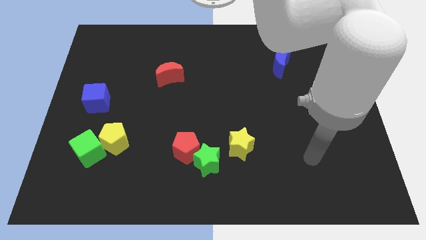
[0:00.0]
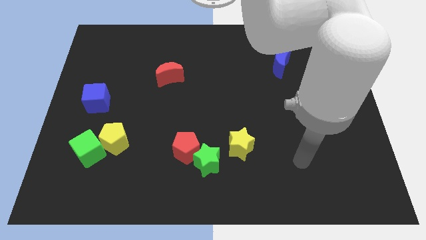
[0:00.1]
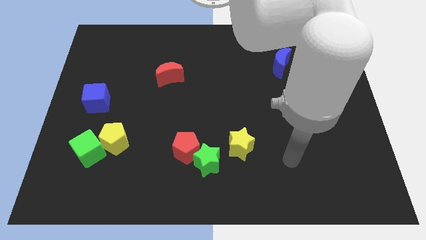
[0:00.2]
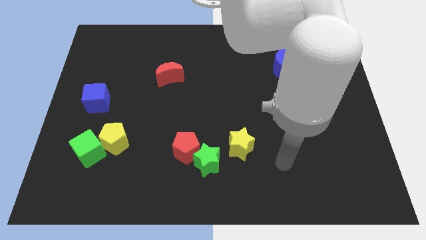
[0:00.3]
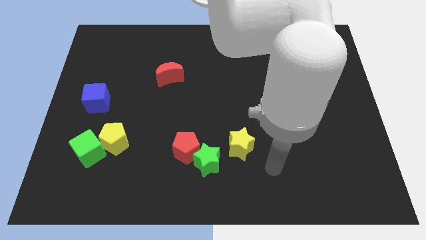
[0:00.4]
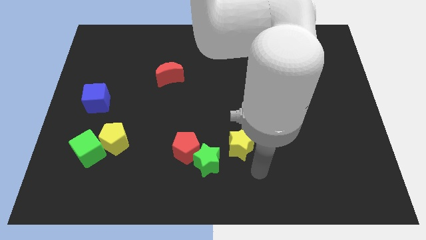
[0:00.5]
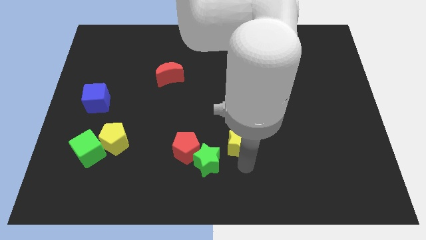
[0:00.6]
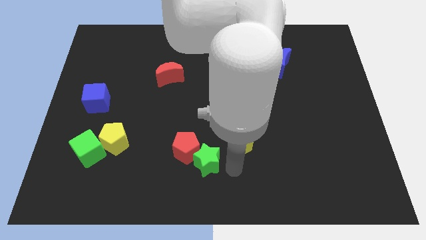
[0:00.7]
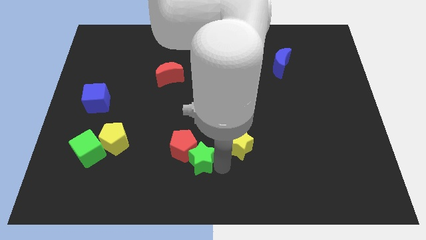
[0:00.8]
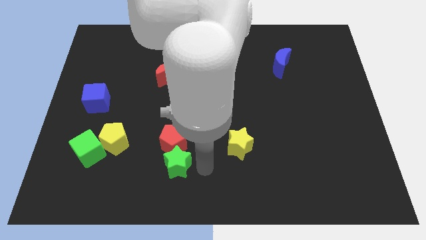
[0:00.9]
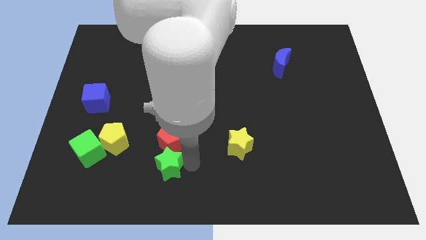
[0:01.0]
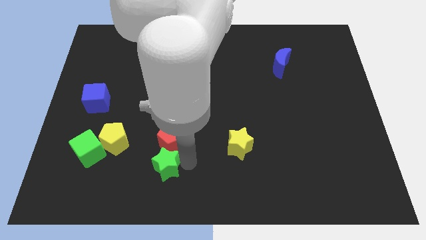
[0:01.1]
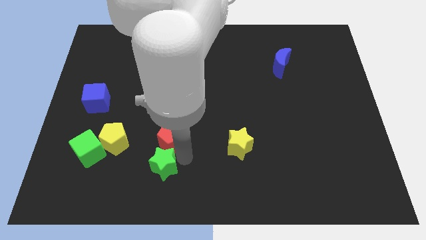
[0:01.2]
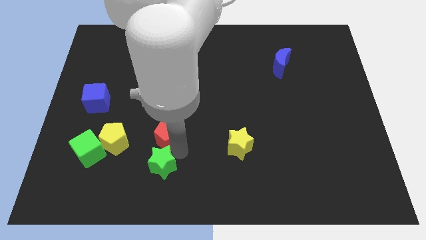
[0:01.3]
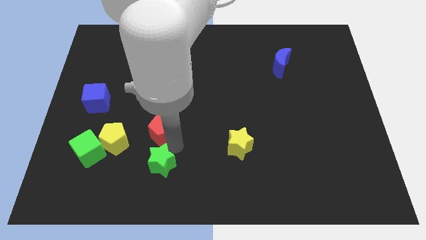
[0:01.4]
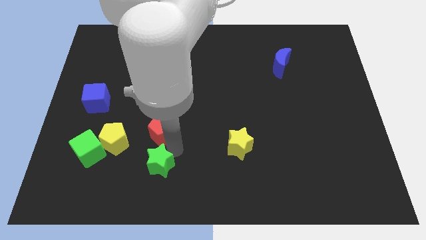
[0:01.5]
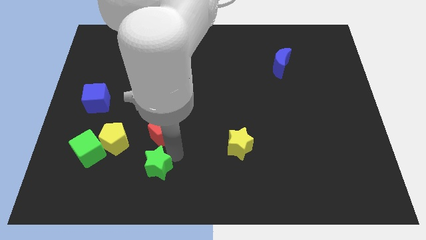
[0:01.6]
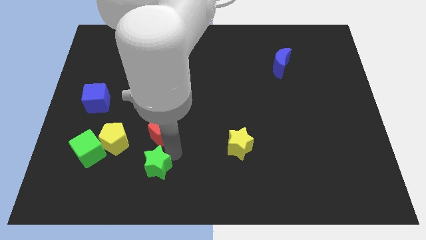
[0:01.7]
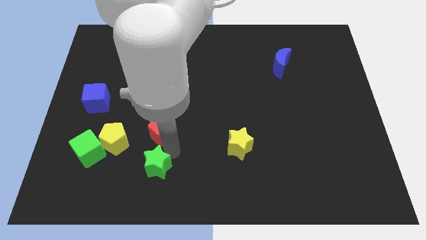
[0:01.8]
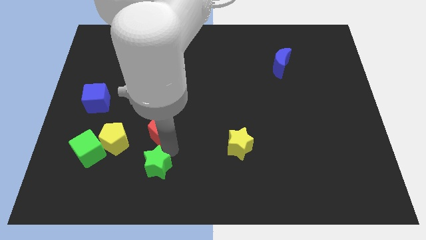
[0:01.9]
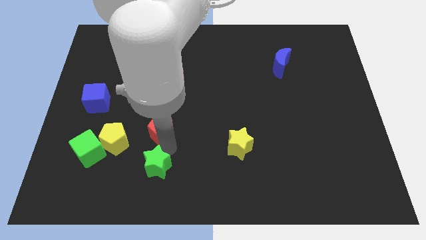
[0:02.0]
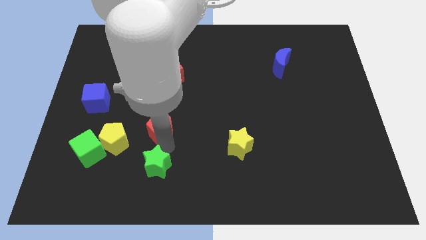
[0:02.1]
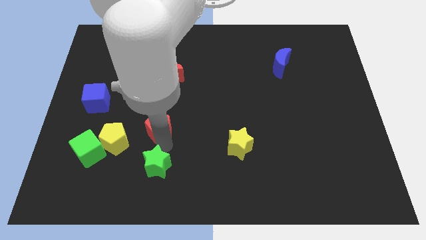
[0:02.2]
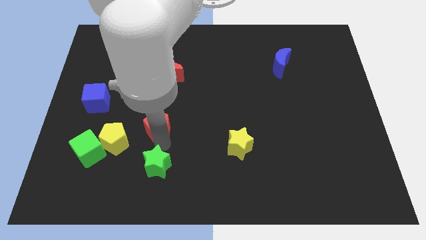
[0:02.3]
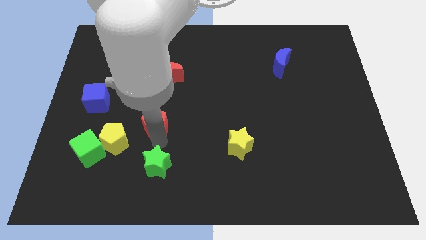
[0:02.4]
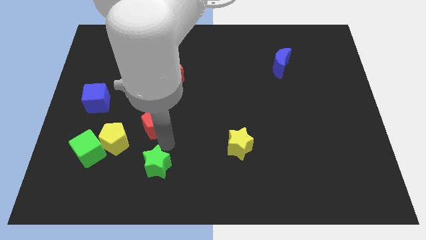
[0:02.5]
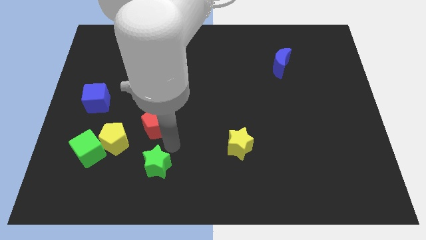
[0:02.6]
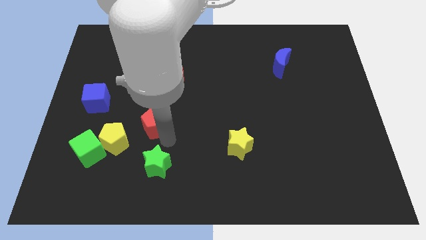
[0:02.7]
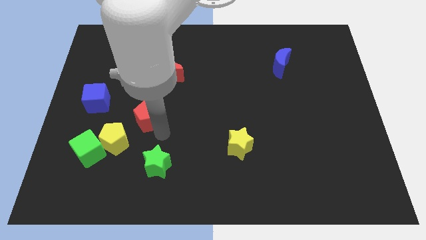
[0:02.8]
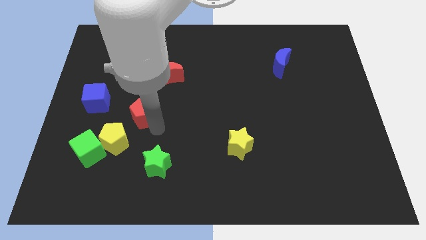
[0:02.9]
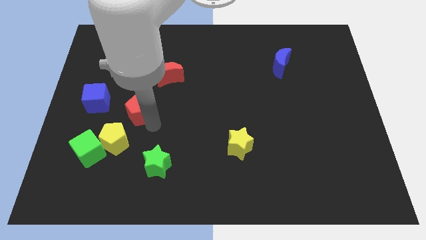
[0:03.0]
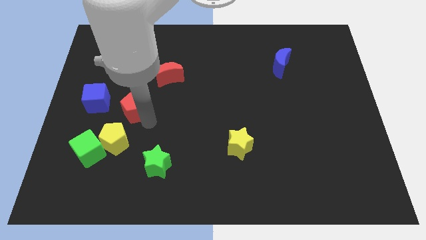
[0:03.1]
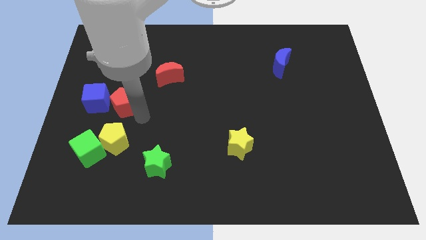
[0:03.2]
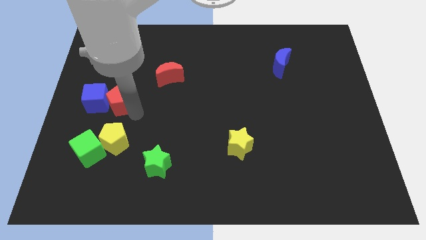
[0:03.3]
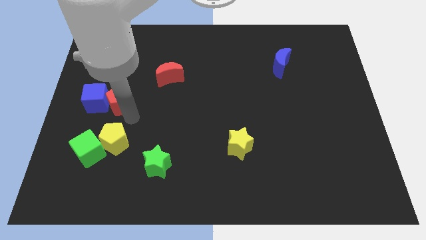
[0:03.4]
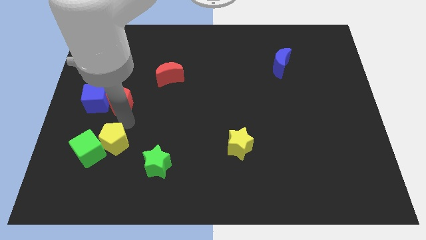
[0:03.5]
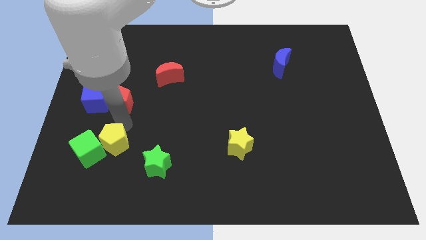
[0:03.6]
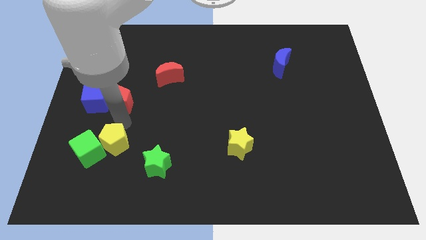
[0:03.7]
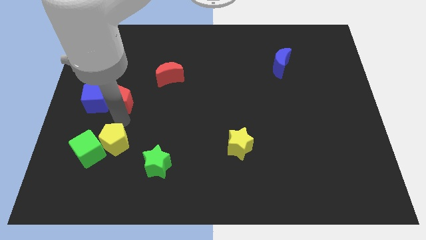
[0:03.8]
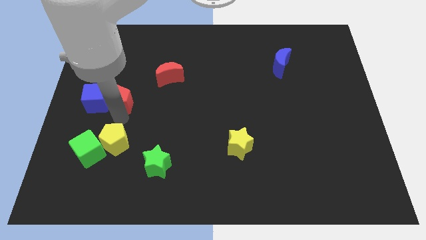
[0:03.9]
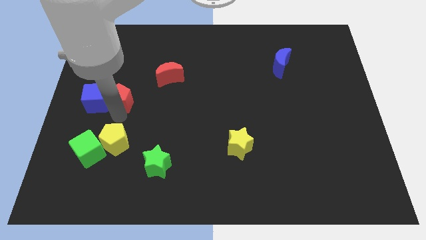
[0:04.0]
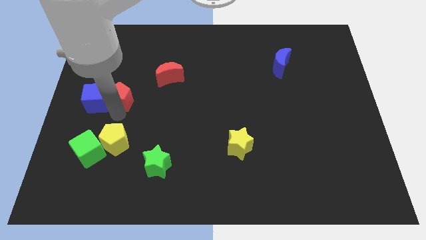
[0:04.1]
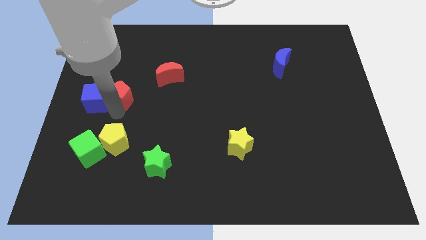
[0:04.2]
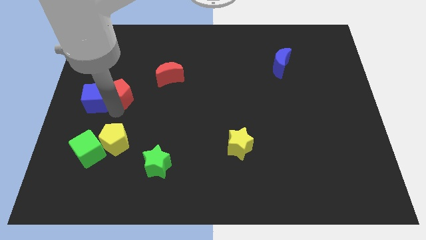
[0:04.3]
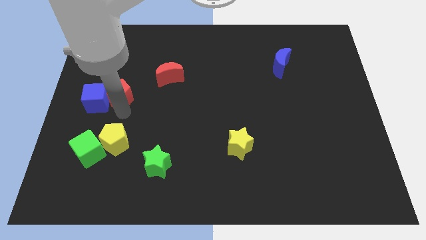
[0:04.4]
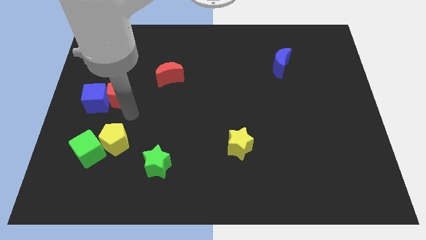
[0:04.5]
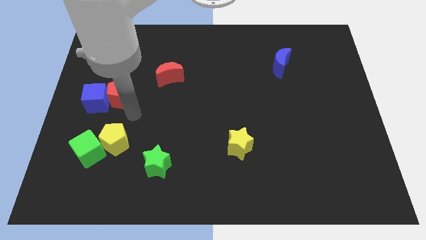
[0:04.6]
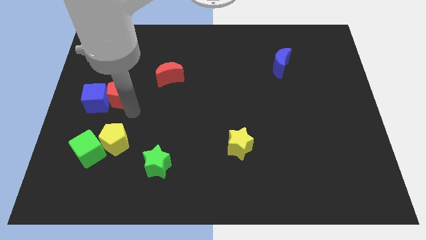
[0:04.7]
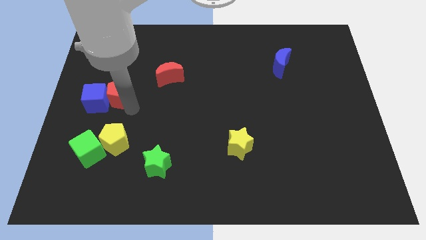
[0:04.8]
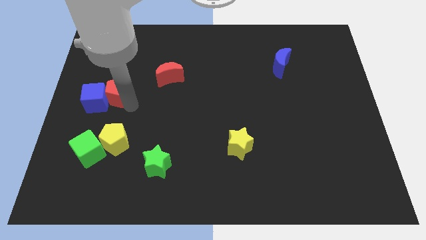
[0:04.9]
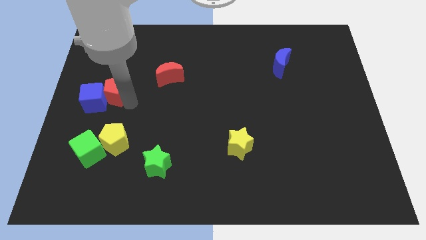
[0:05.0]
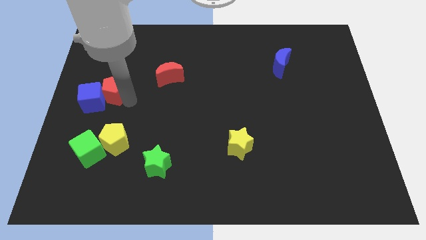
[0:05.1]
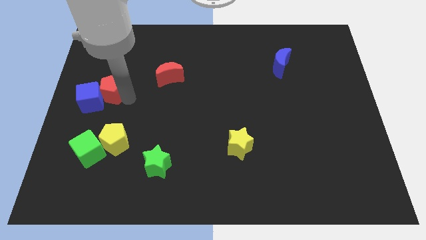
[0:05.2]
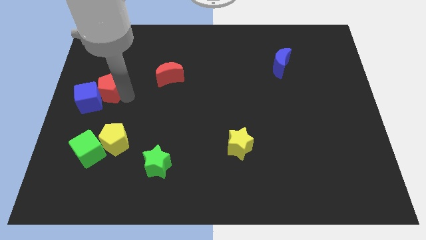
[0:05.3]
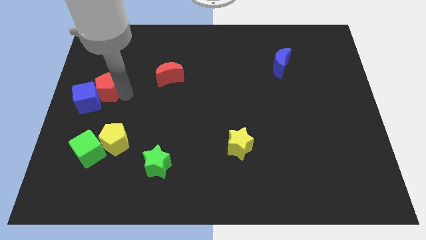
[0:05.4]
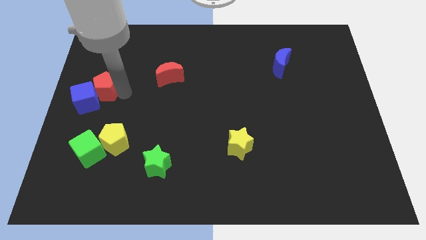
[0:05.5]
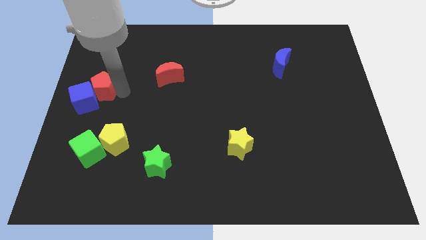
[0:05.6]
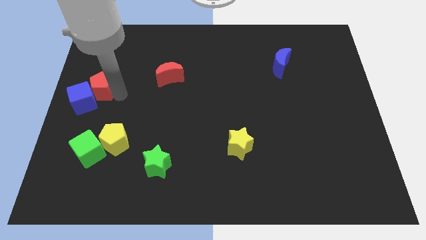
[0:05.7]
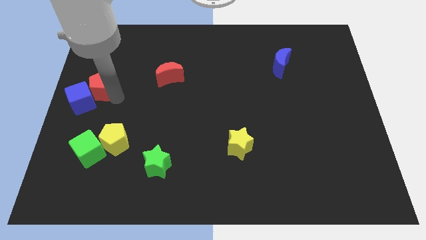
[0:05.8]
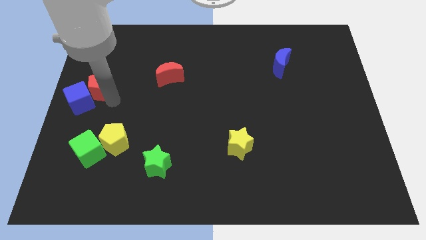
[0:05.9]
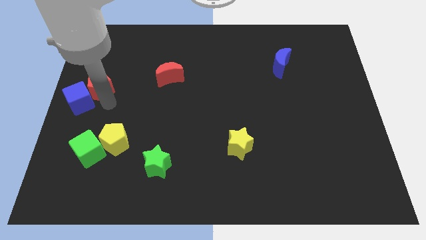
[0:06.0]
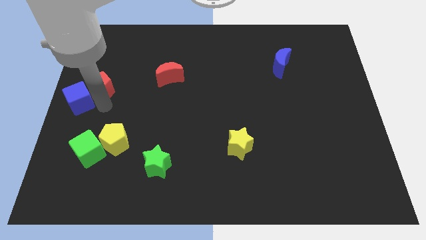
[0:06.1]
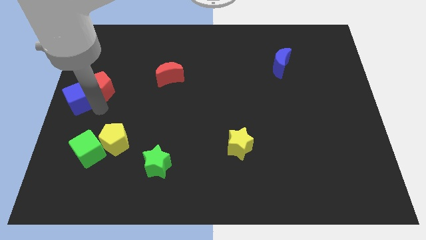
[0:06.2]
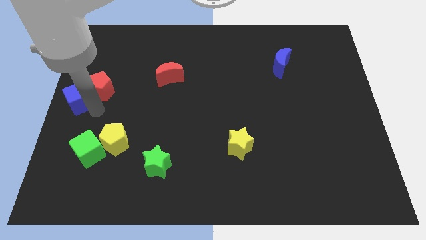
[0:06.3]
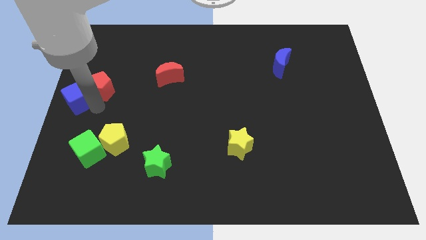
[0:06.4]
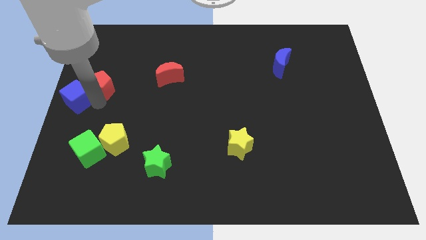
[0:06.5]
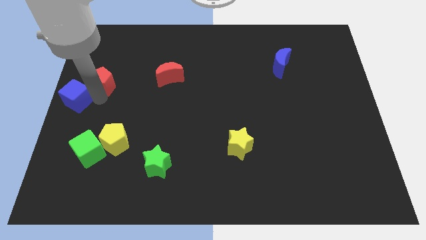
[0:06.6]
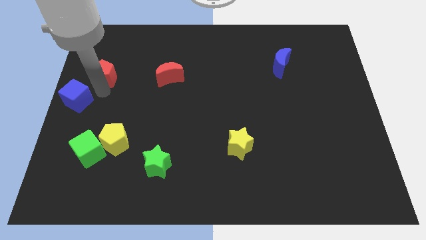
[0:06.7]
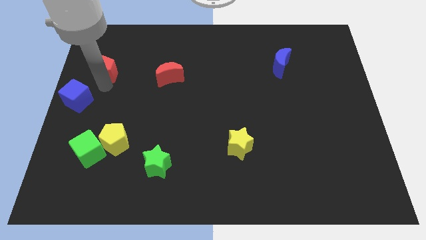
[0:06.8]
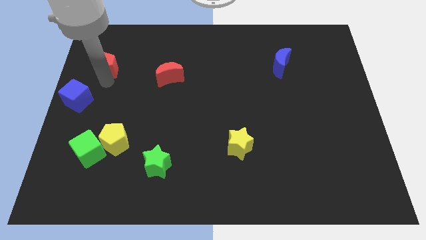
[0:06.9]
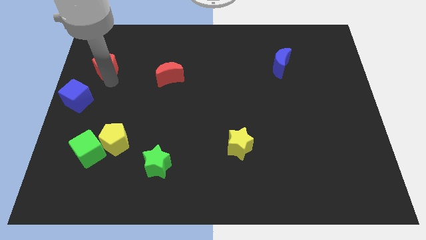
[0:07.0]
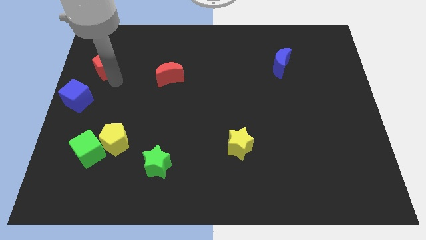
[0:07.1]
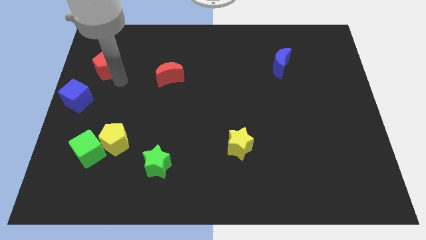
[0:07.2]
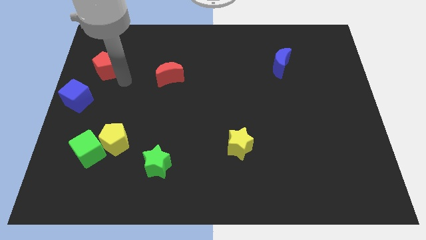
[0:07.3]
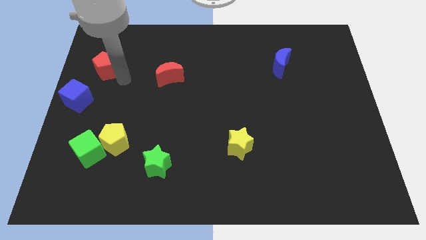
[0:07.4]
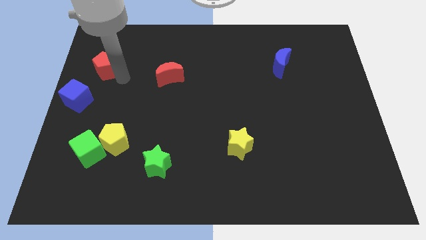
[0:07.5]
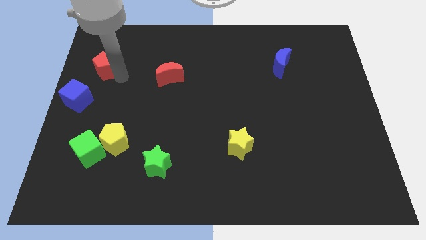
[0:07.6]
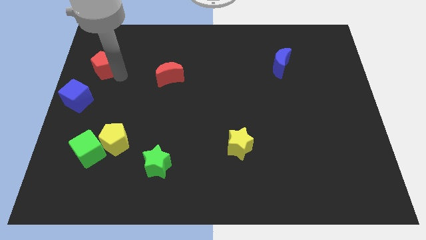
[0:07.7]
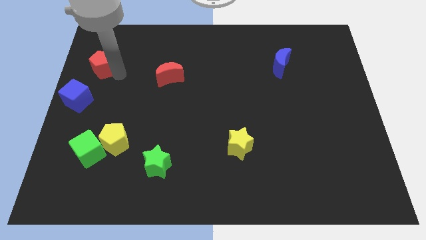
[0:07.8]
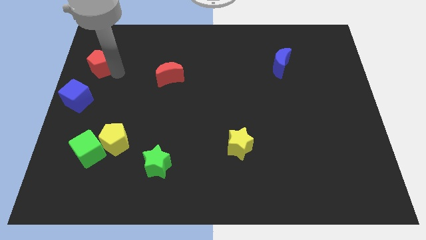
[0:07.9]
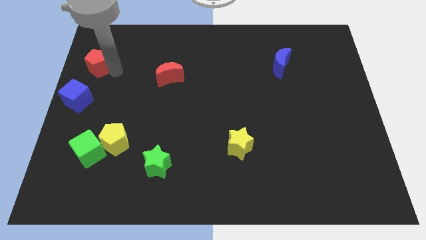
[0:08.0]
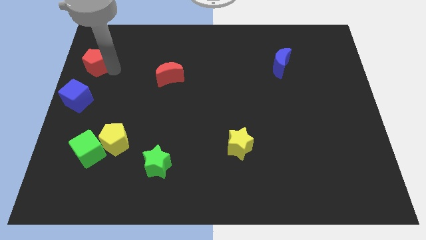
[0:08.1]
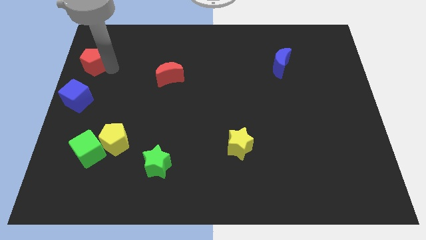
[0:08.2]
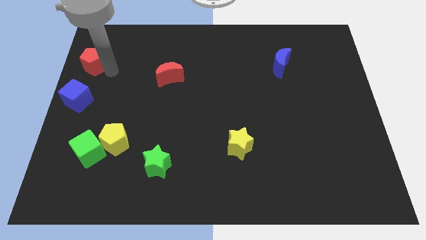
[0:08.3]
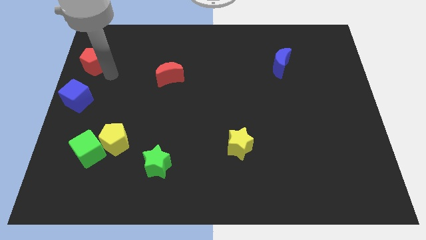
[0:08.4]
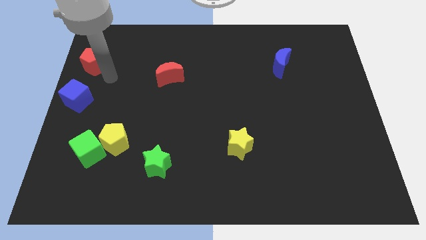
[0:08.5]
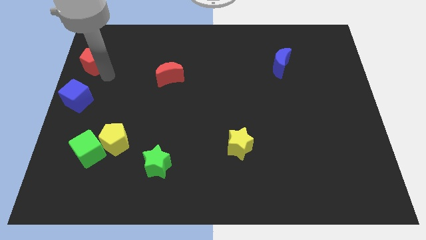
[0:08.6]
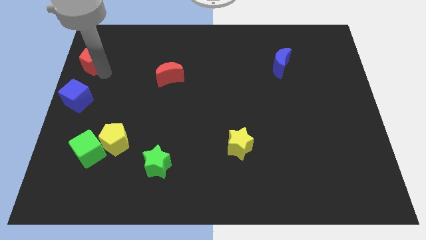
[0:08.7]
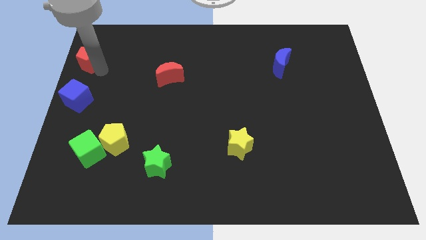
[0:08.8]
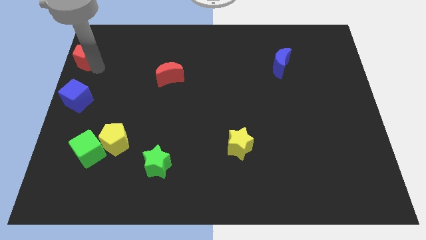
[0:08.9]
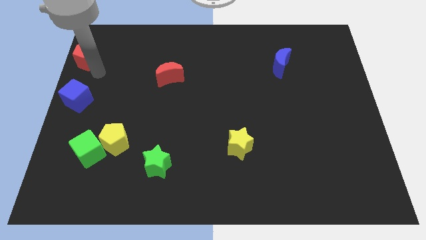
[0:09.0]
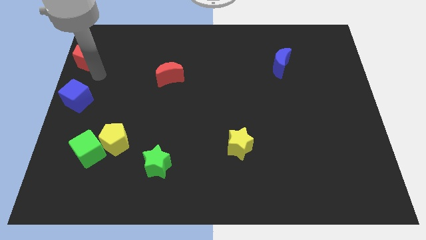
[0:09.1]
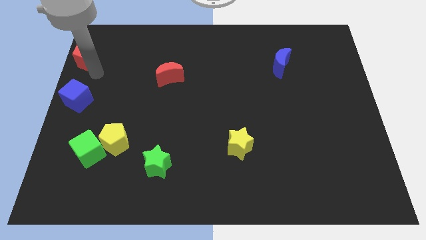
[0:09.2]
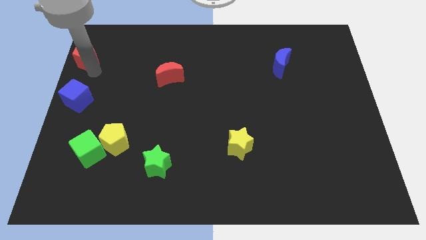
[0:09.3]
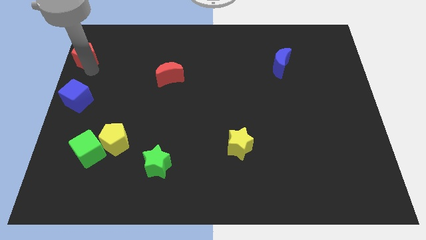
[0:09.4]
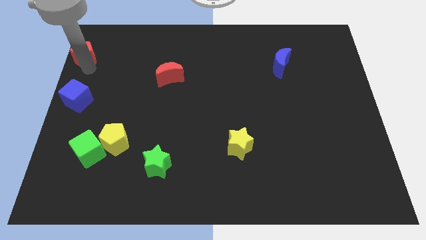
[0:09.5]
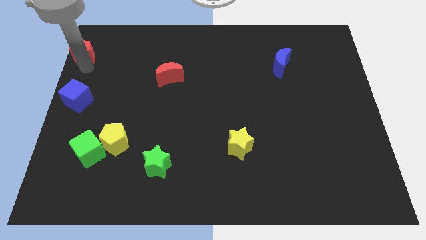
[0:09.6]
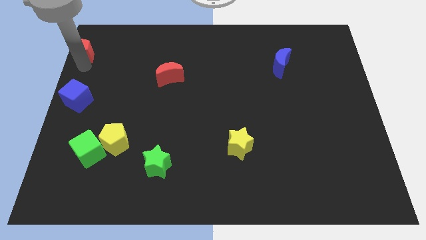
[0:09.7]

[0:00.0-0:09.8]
move the red pentagon to the top left of the board
